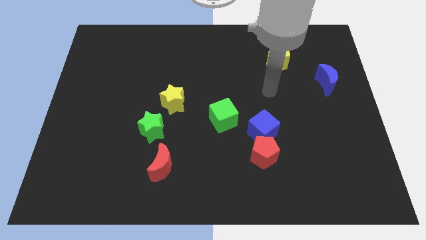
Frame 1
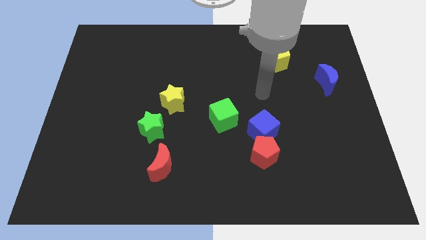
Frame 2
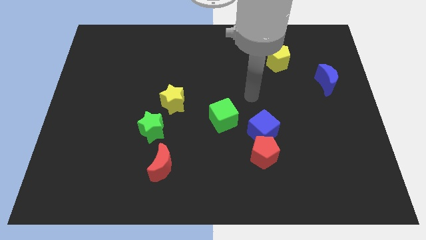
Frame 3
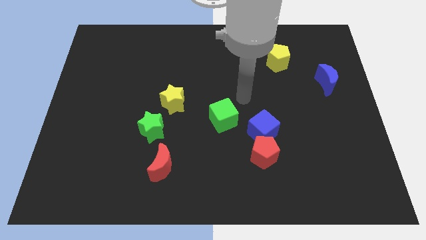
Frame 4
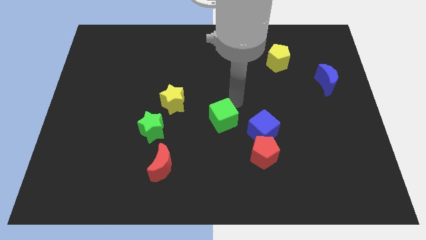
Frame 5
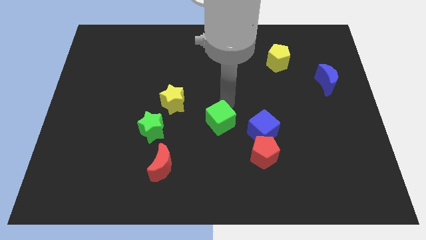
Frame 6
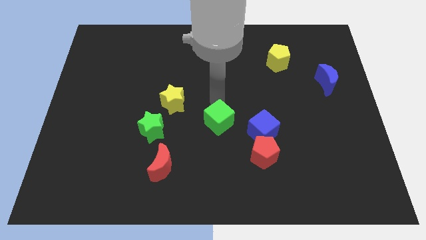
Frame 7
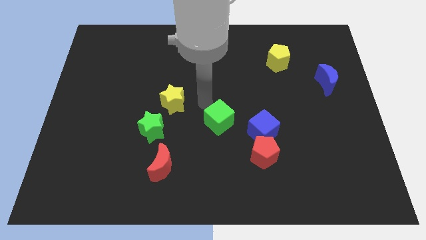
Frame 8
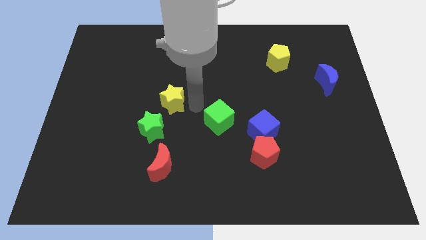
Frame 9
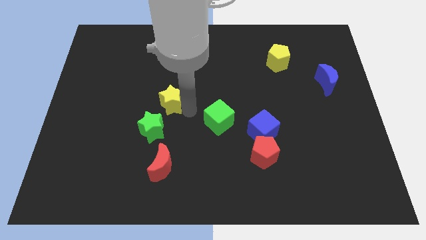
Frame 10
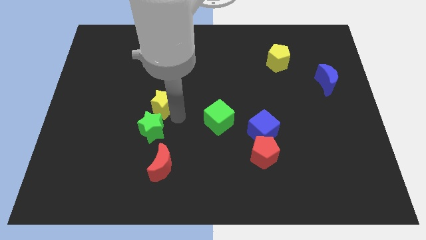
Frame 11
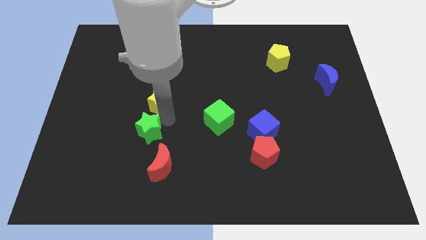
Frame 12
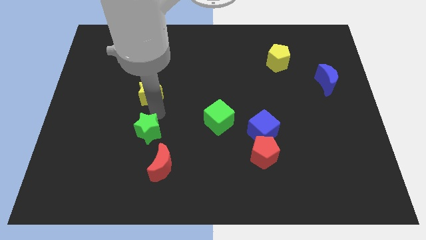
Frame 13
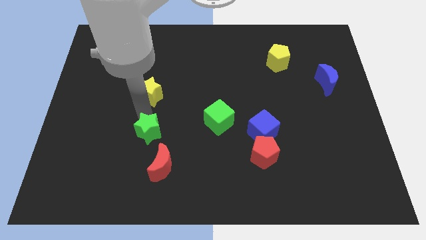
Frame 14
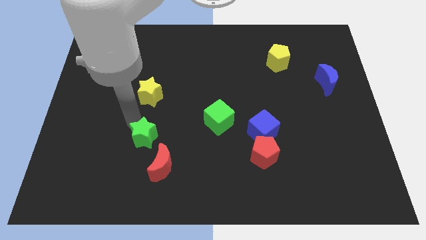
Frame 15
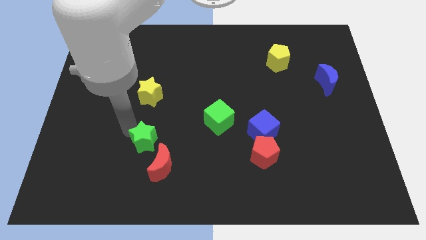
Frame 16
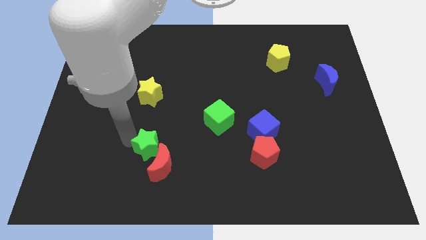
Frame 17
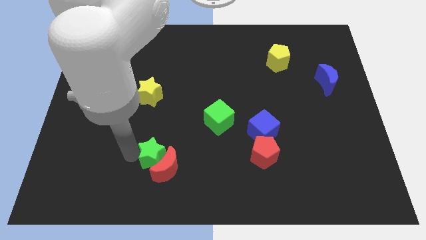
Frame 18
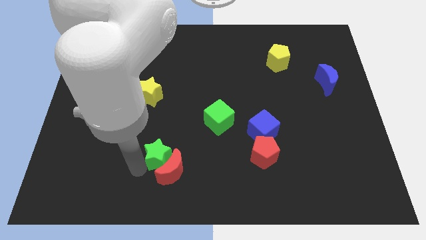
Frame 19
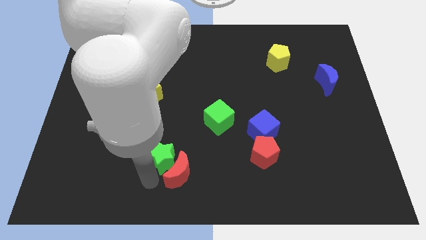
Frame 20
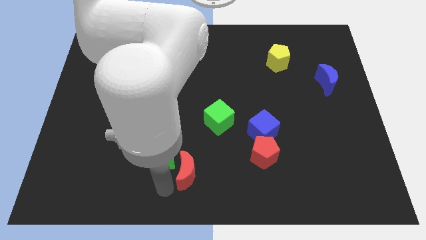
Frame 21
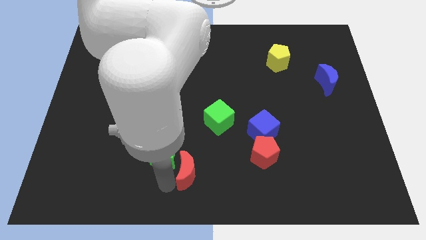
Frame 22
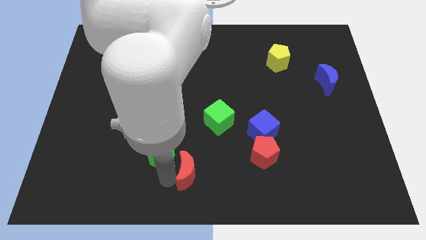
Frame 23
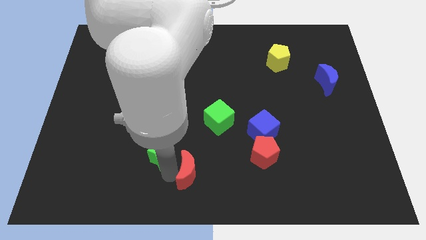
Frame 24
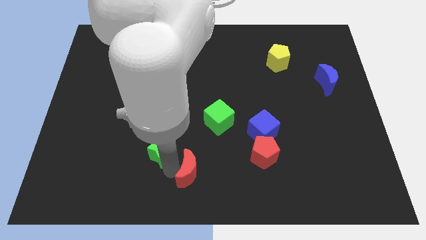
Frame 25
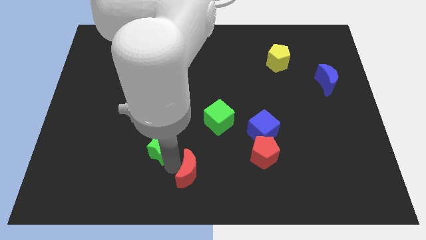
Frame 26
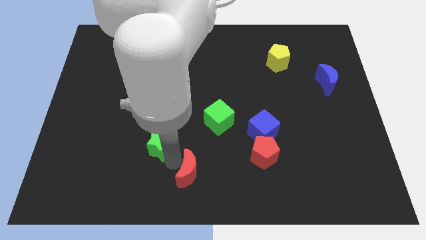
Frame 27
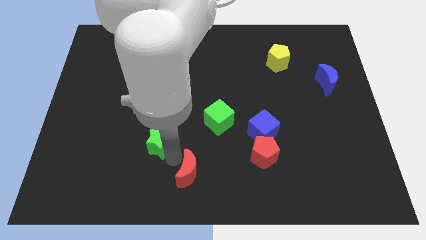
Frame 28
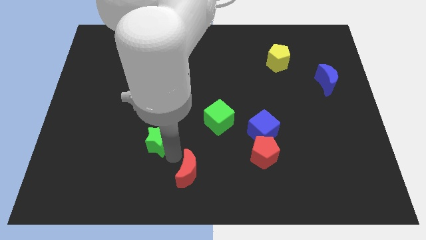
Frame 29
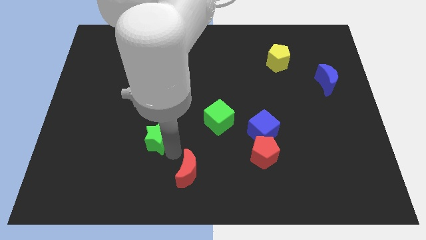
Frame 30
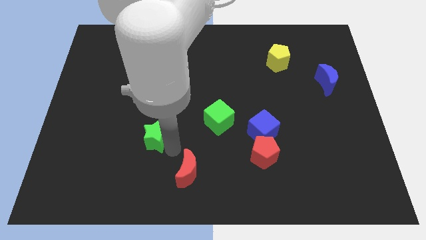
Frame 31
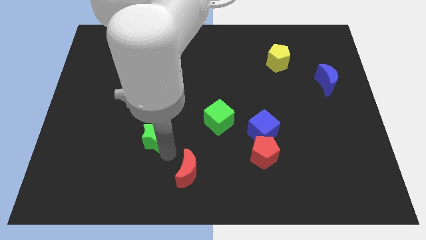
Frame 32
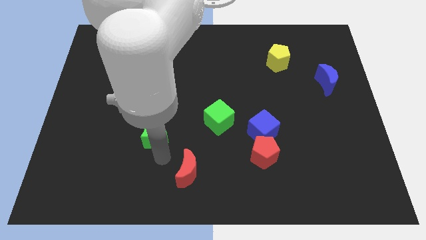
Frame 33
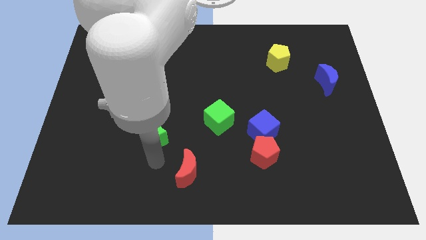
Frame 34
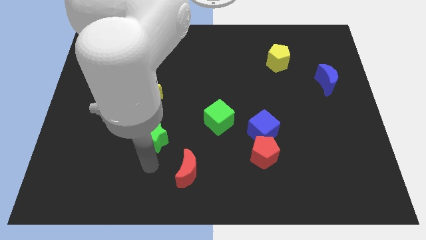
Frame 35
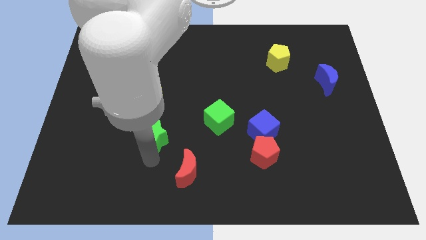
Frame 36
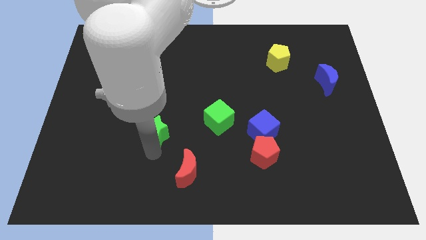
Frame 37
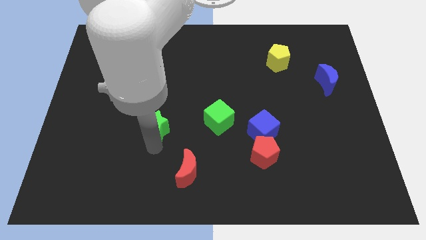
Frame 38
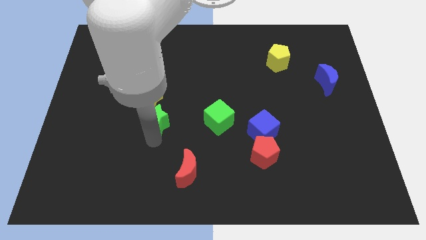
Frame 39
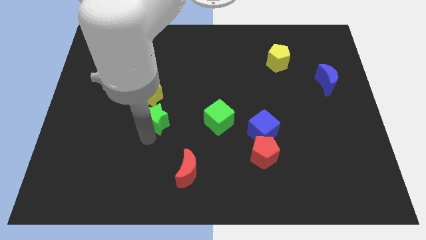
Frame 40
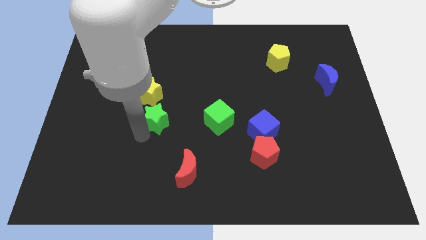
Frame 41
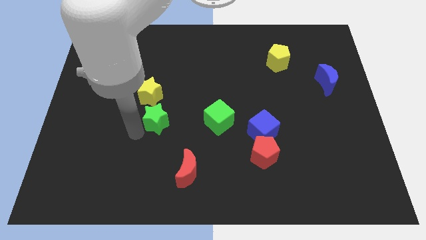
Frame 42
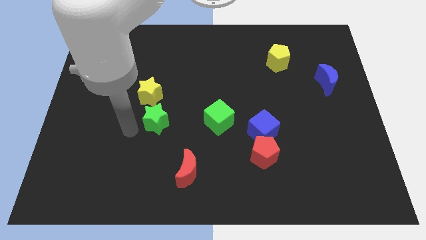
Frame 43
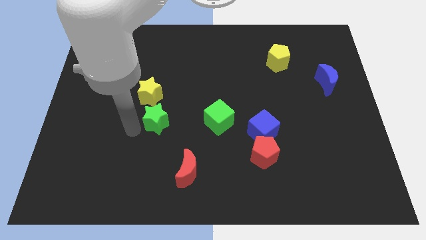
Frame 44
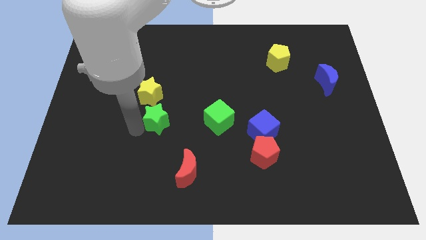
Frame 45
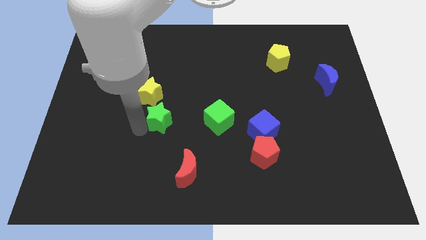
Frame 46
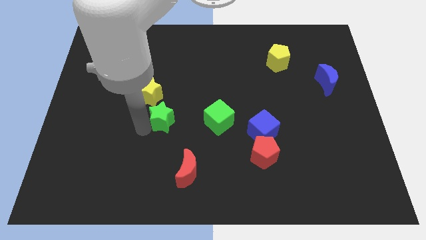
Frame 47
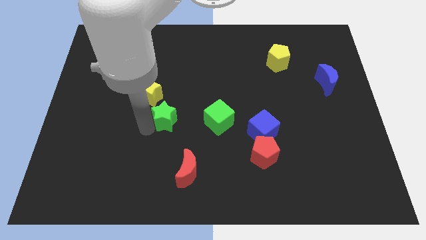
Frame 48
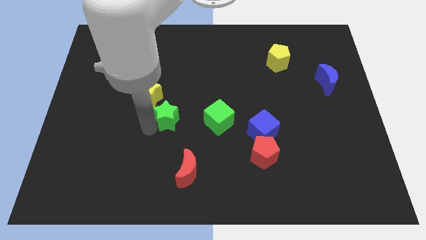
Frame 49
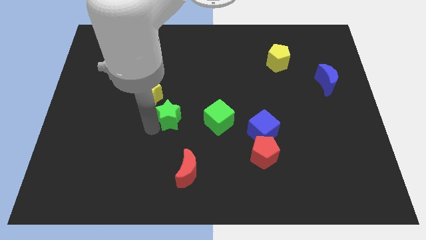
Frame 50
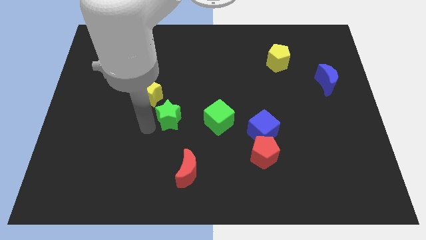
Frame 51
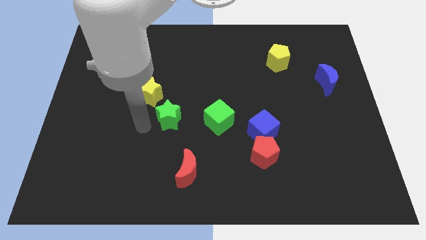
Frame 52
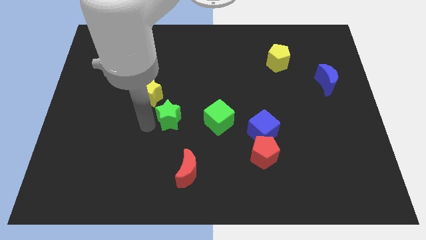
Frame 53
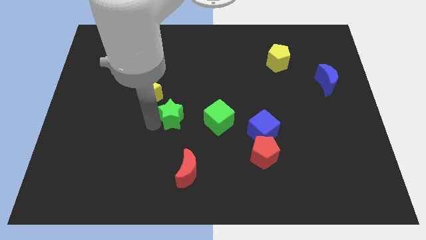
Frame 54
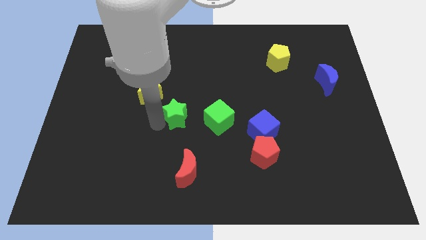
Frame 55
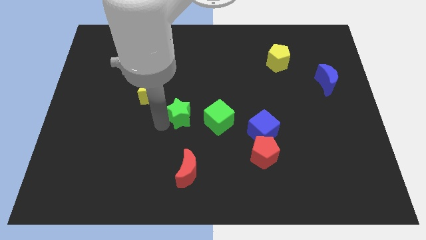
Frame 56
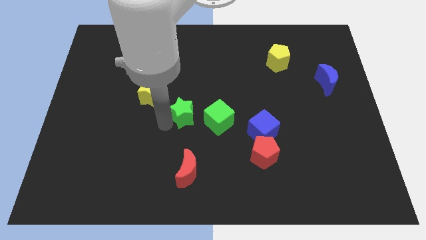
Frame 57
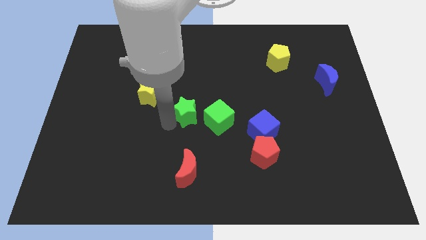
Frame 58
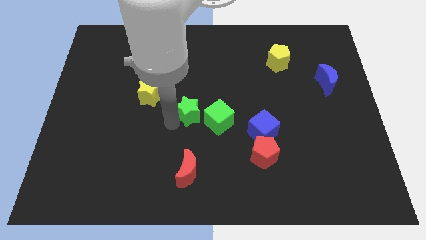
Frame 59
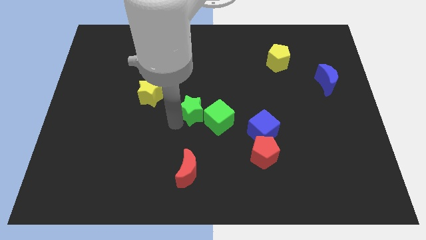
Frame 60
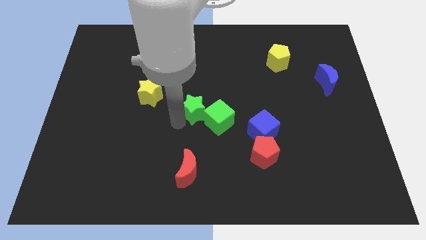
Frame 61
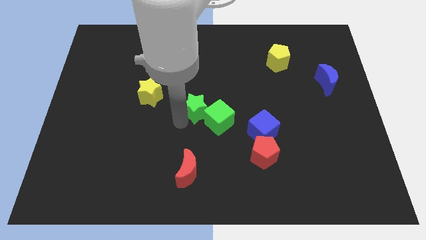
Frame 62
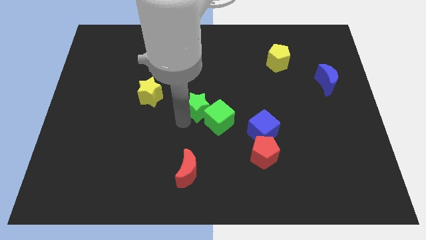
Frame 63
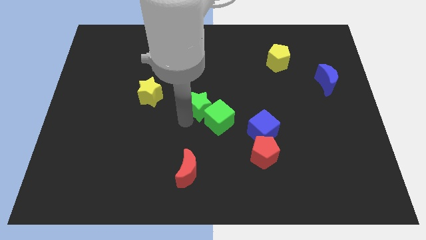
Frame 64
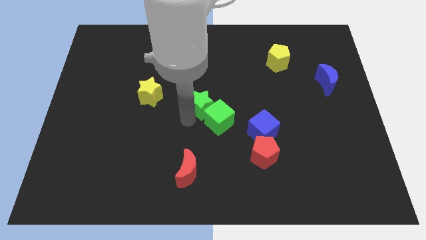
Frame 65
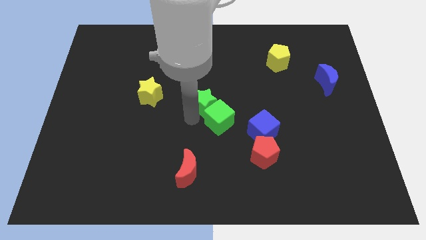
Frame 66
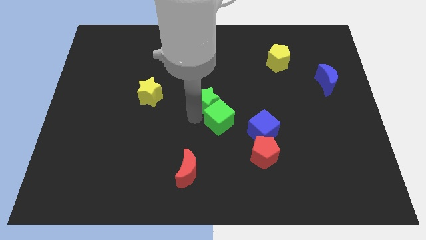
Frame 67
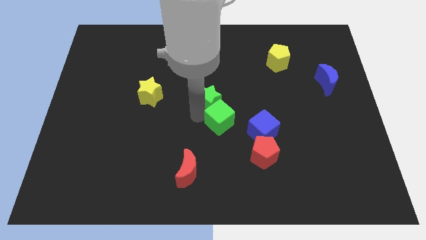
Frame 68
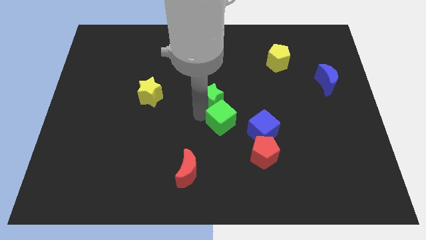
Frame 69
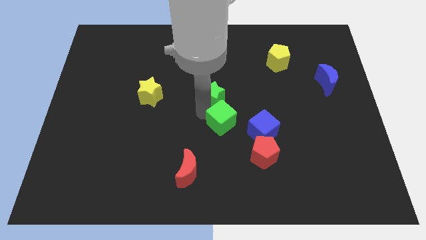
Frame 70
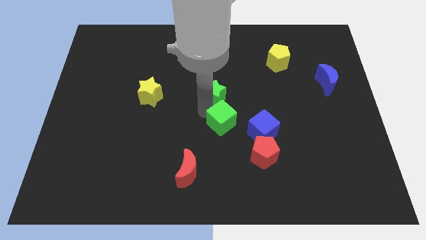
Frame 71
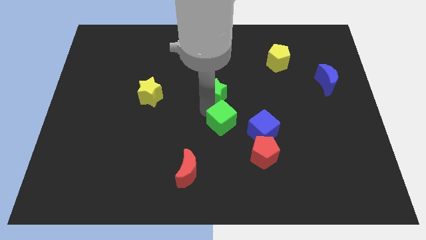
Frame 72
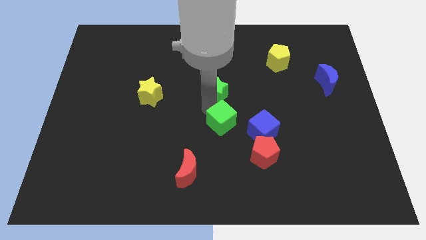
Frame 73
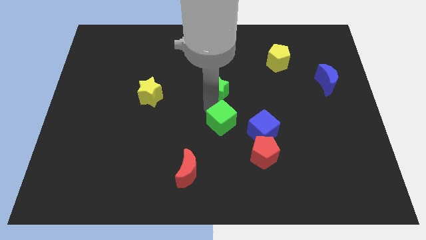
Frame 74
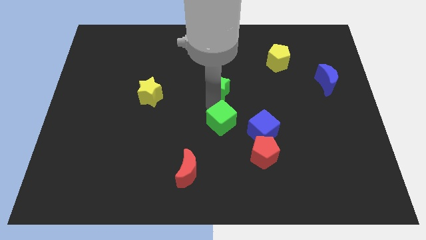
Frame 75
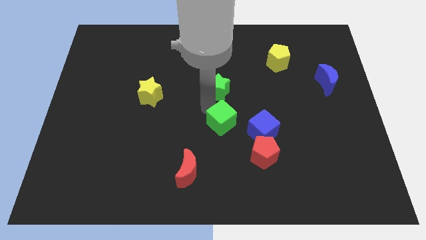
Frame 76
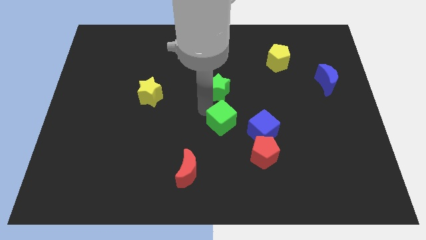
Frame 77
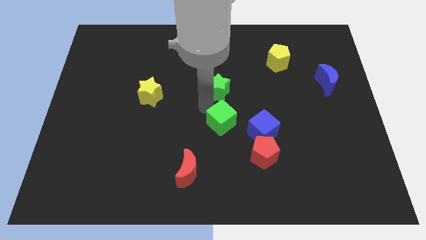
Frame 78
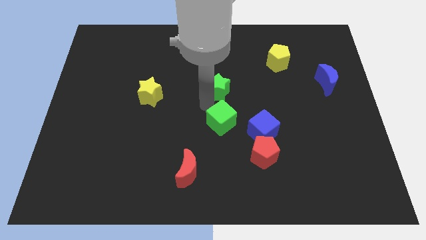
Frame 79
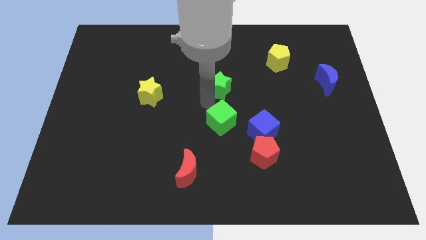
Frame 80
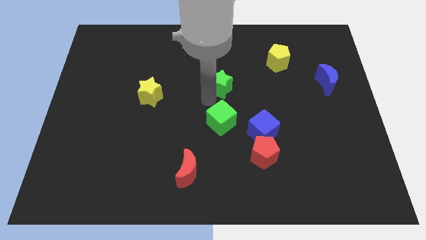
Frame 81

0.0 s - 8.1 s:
slide the green star upwards and then to the right
